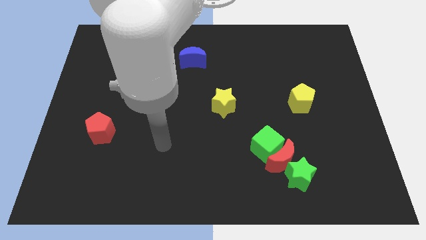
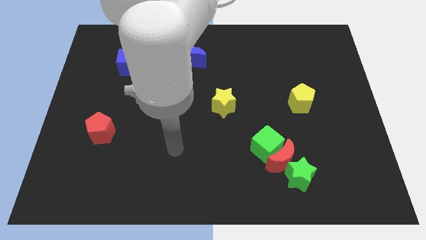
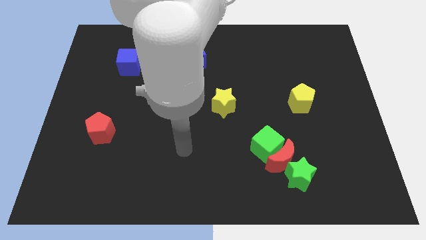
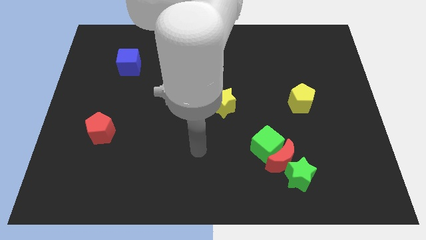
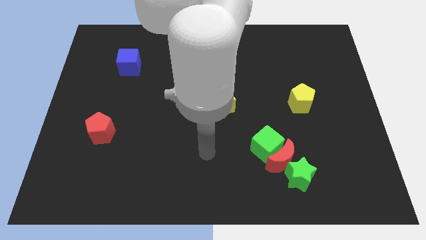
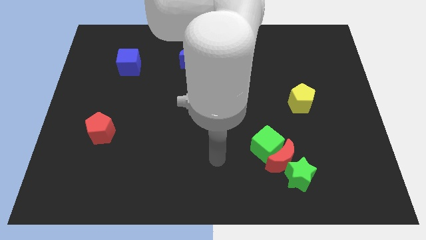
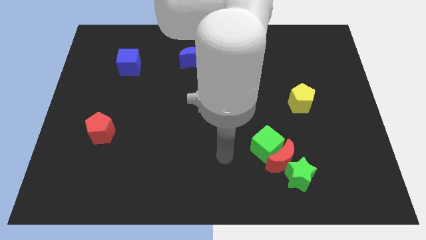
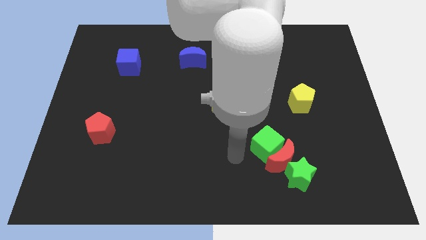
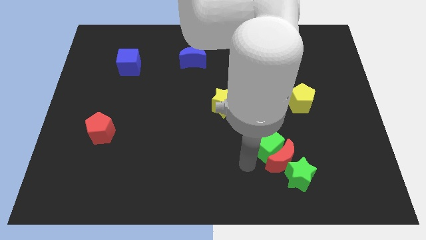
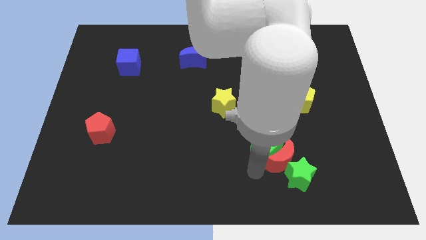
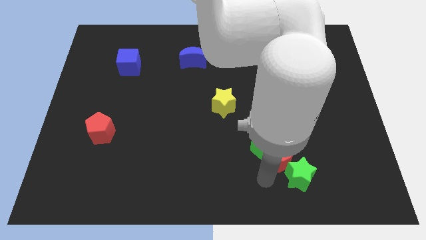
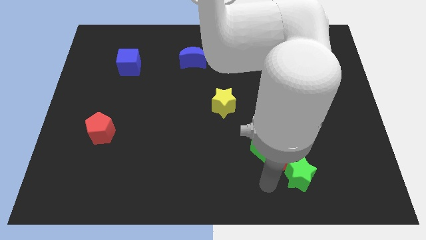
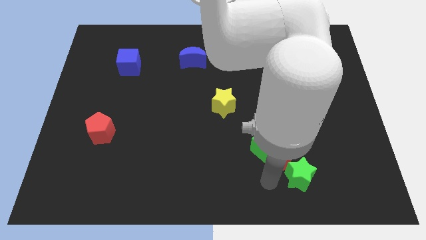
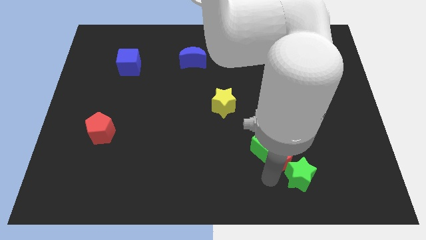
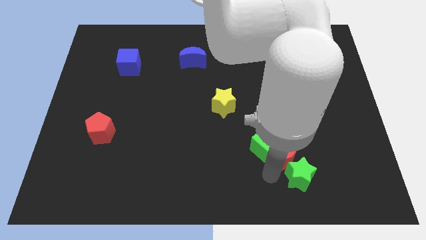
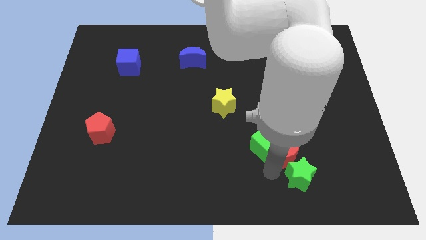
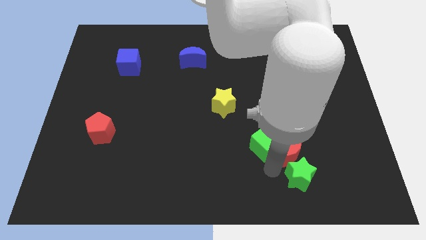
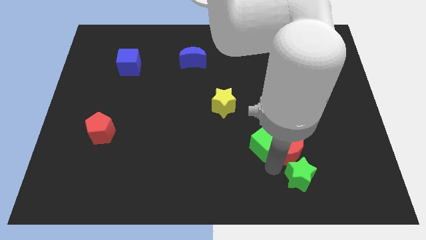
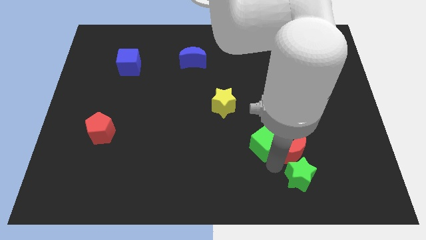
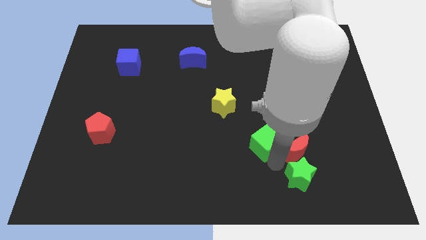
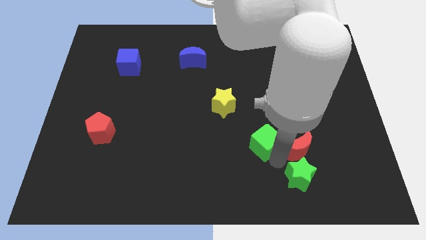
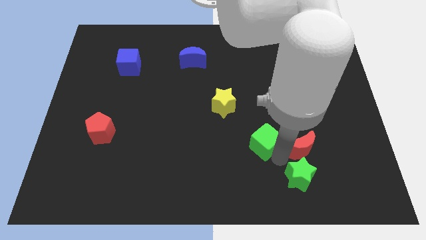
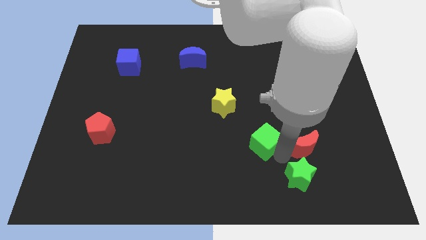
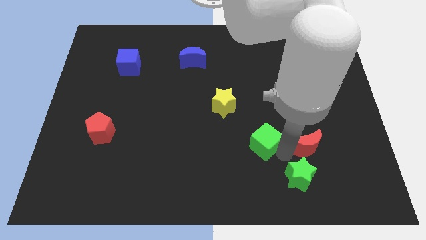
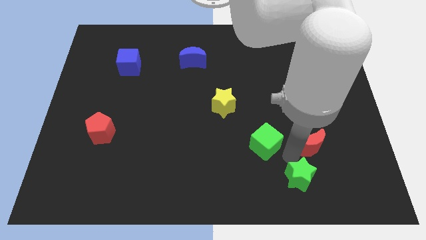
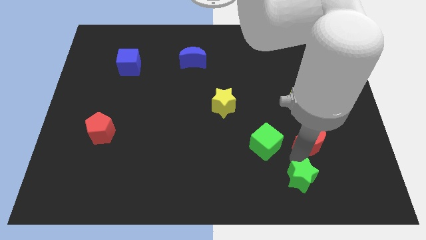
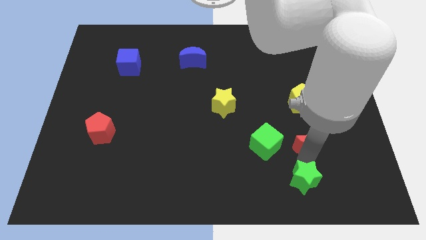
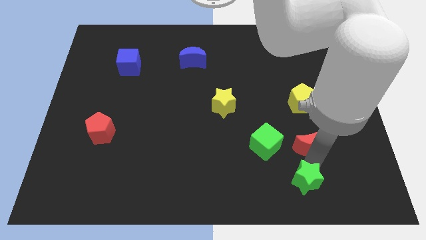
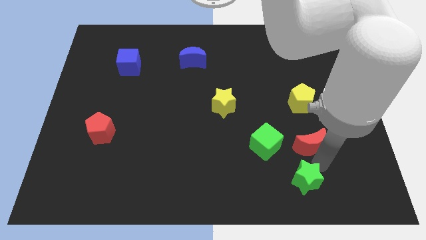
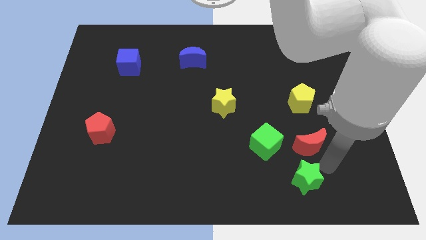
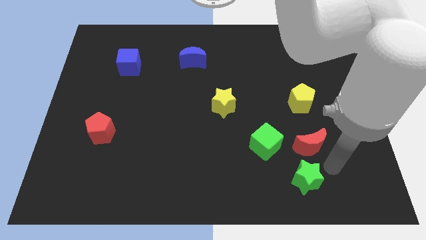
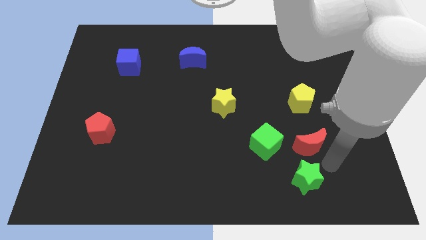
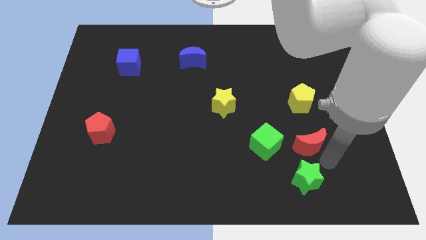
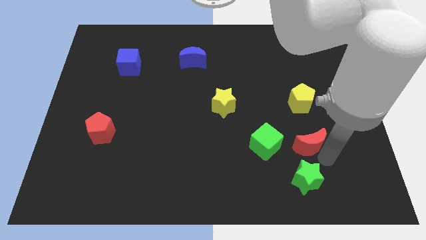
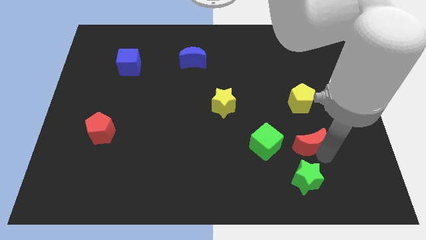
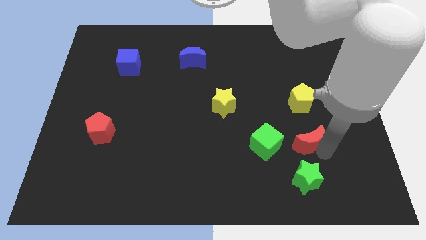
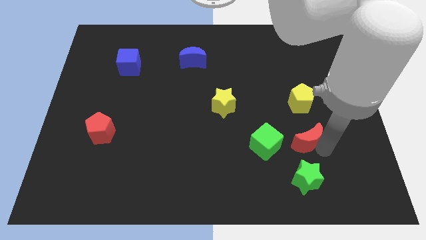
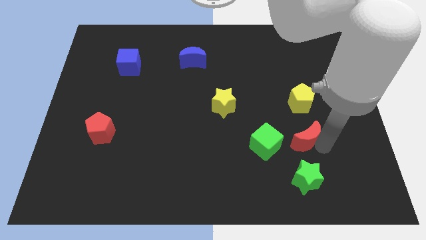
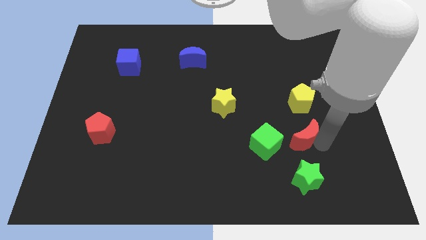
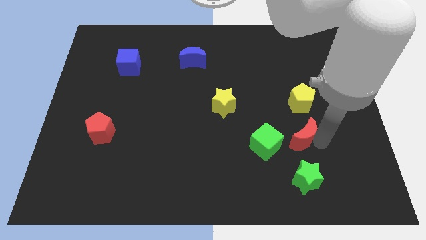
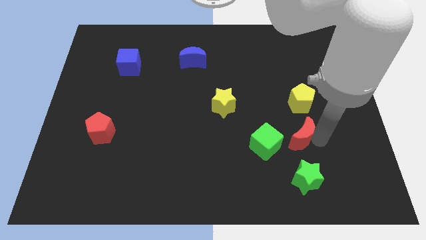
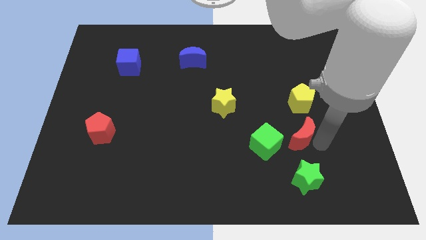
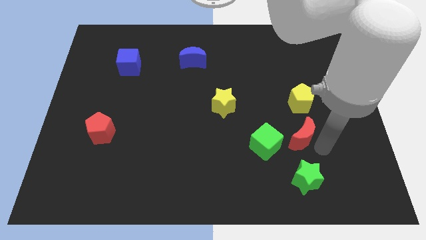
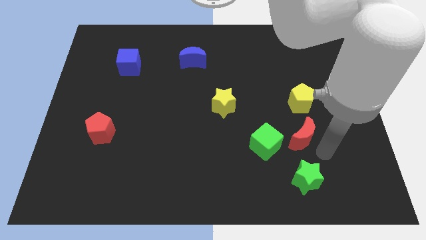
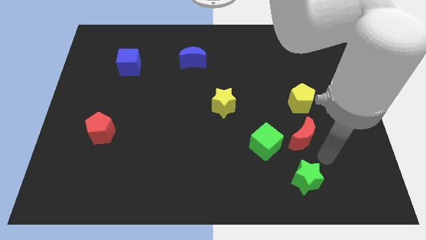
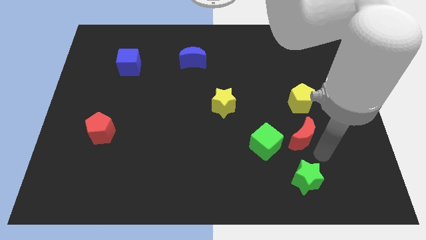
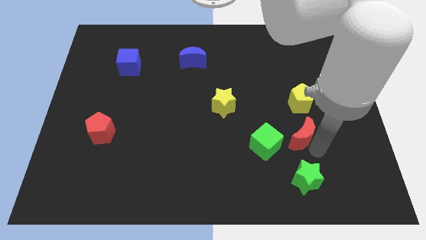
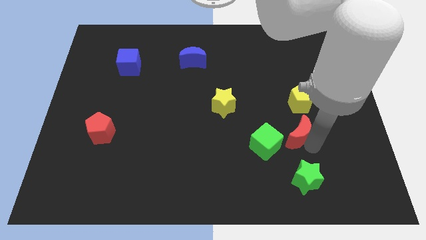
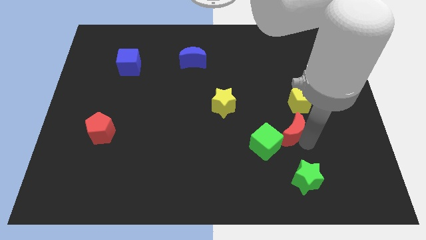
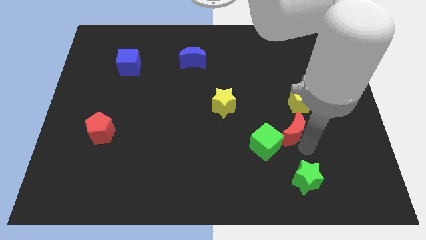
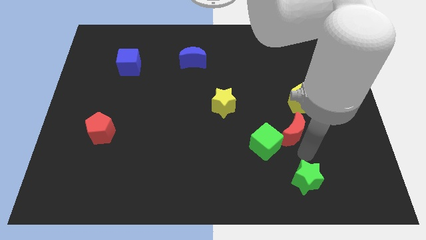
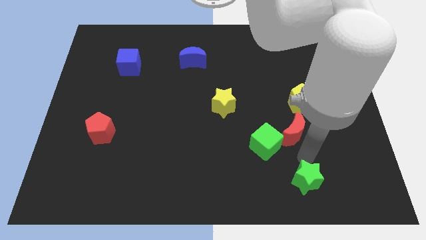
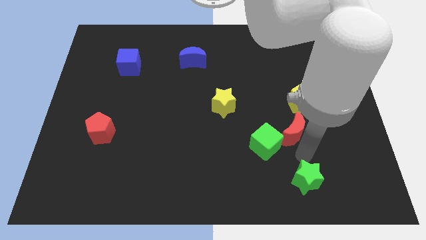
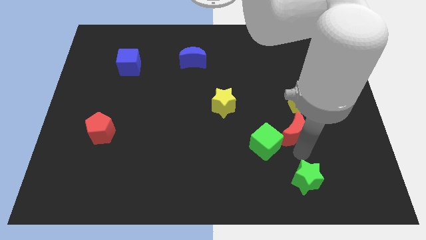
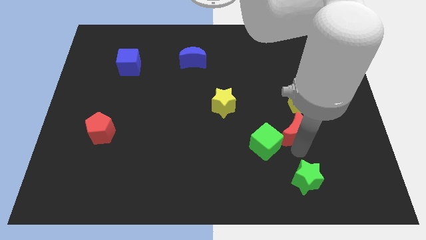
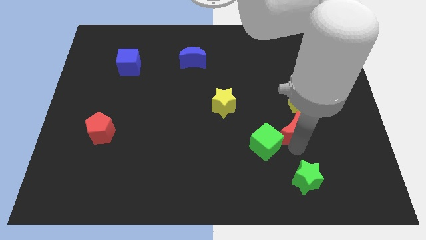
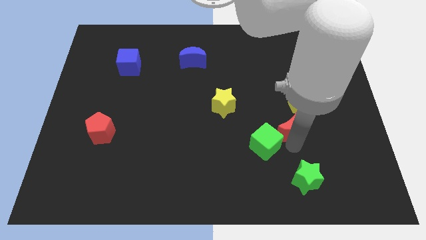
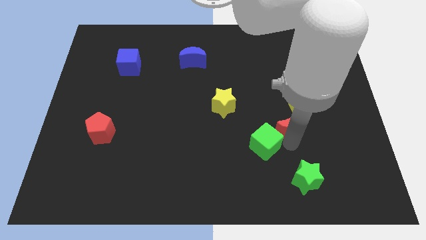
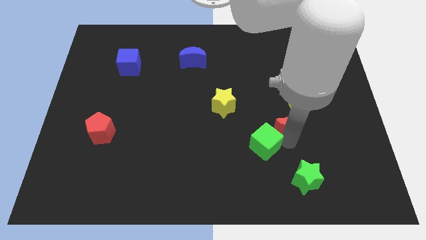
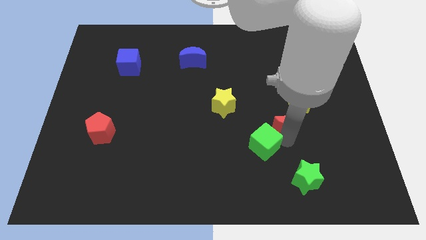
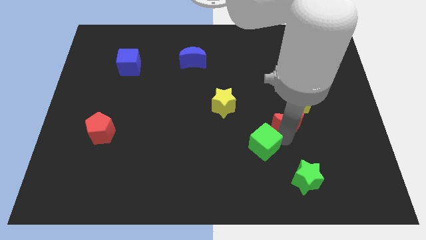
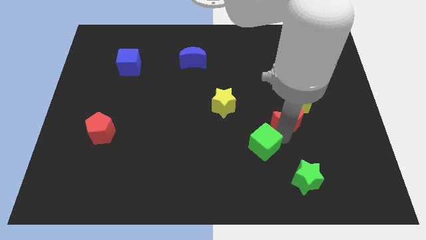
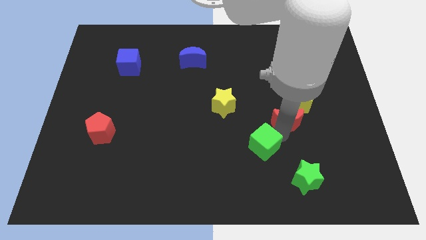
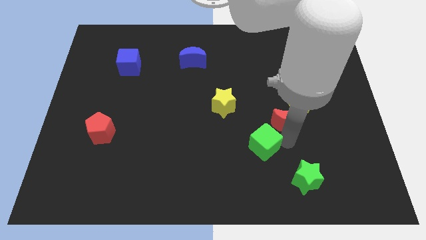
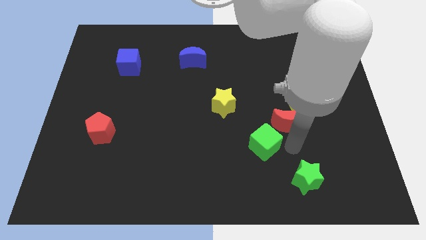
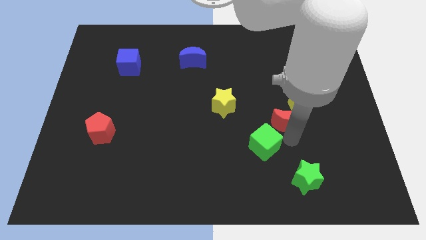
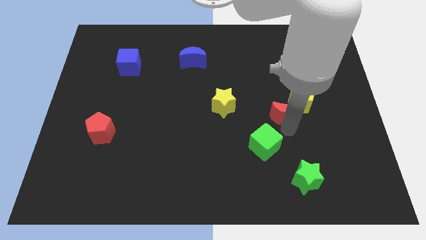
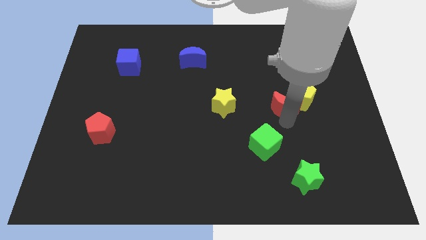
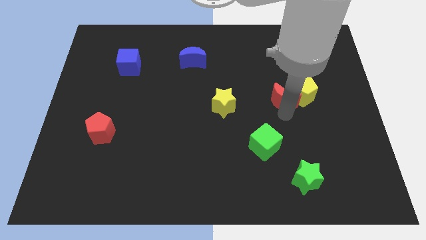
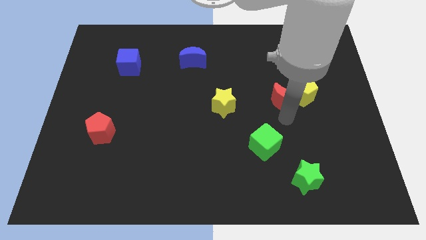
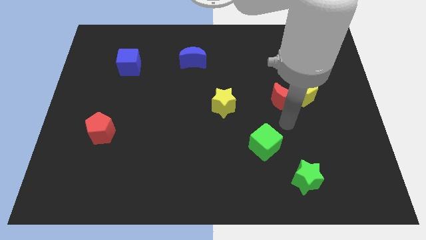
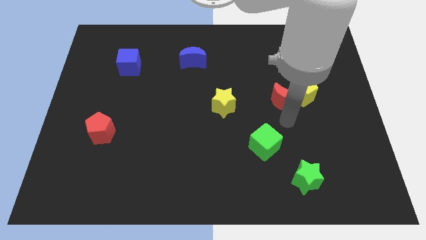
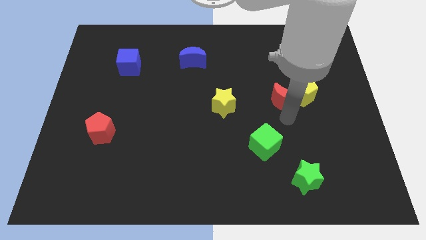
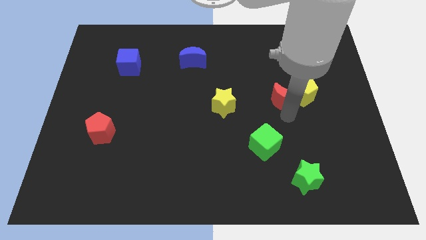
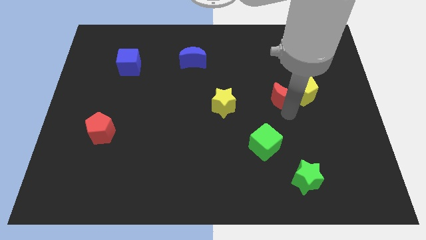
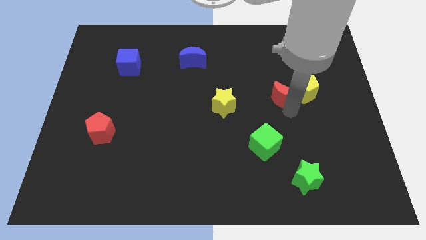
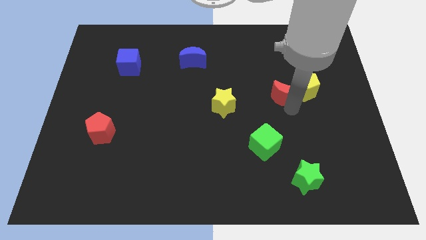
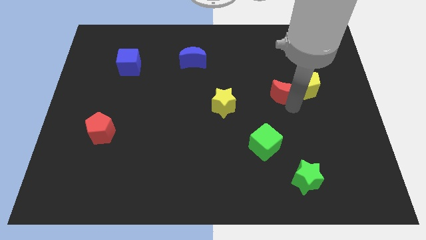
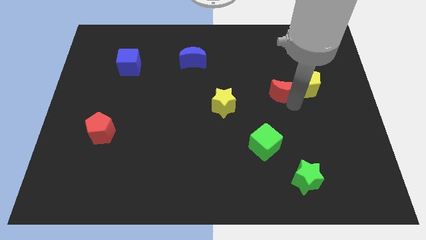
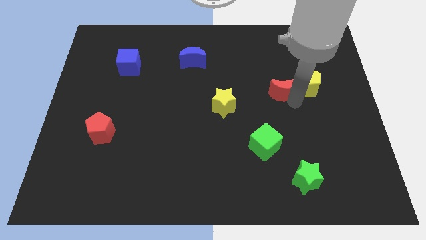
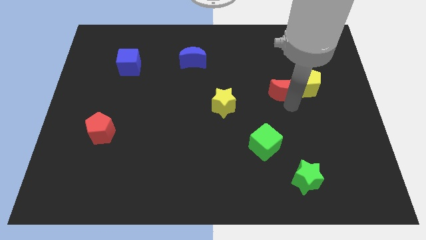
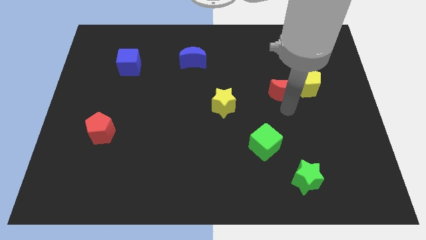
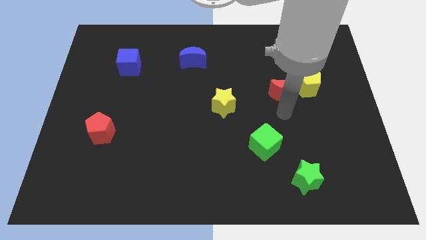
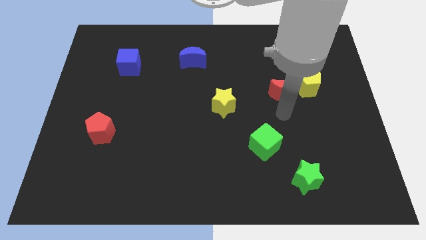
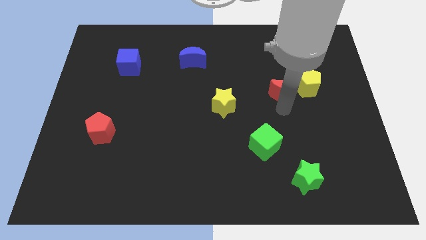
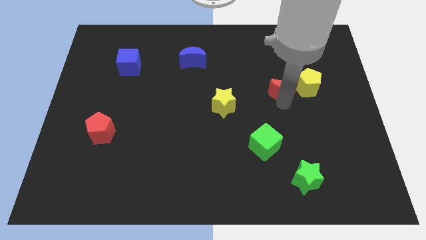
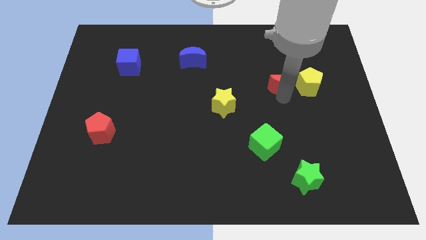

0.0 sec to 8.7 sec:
move the red moon to the top left side of the yellow pentagon
